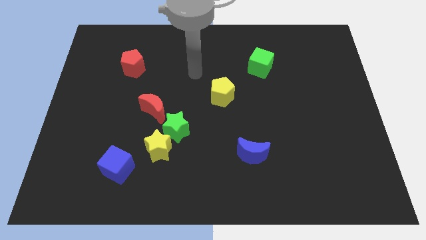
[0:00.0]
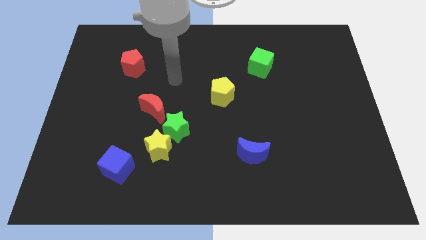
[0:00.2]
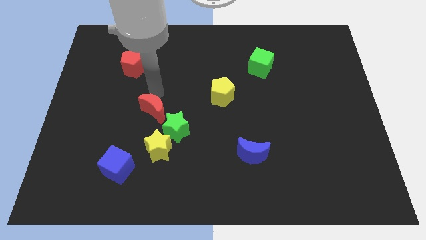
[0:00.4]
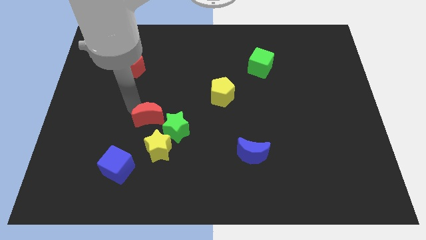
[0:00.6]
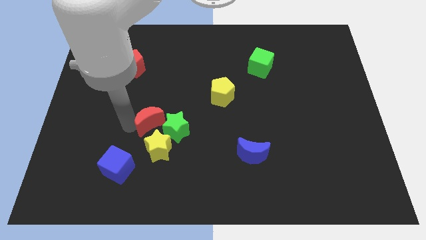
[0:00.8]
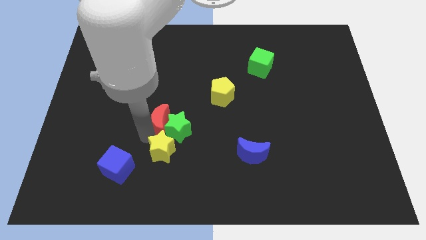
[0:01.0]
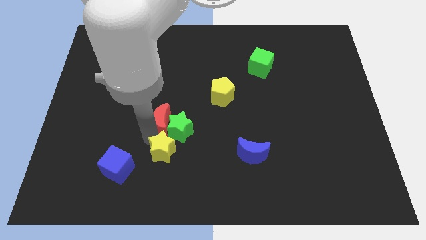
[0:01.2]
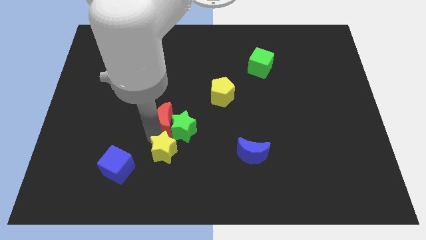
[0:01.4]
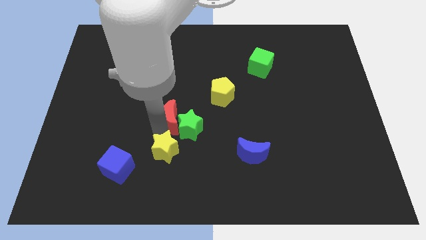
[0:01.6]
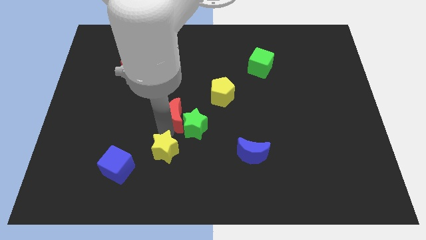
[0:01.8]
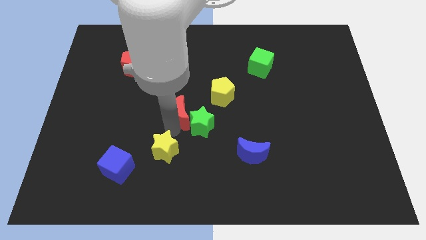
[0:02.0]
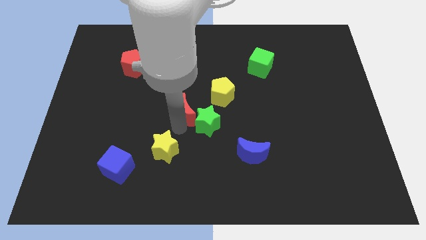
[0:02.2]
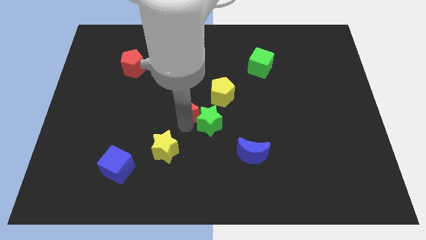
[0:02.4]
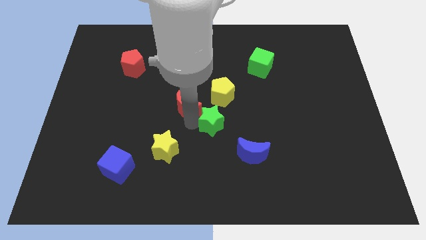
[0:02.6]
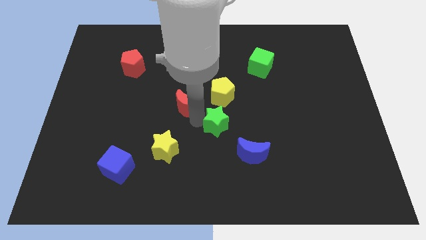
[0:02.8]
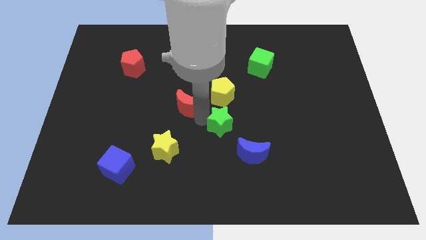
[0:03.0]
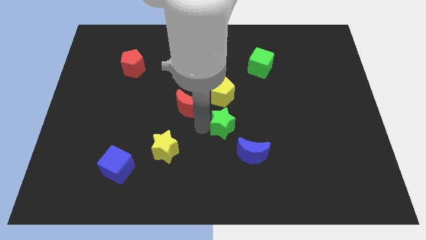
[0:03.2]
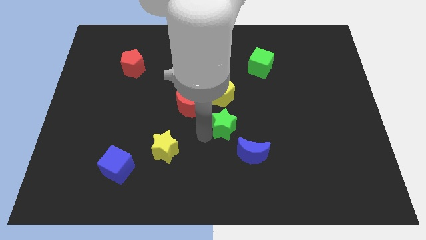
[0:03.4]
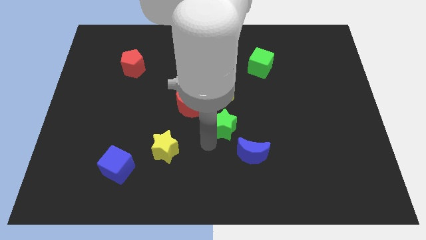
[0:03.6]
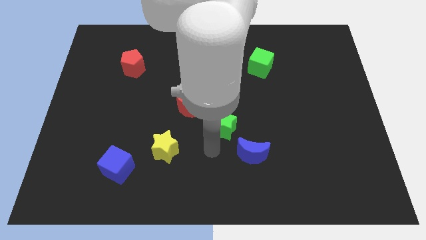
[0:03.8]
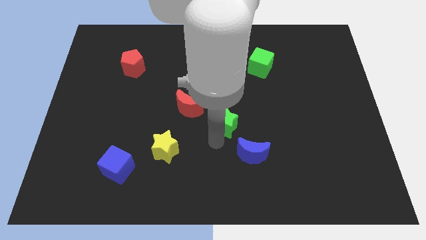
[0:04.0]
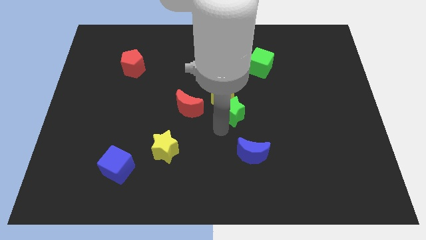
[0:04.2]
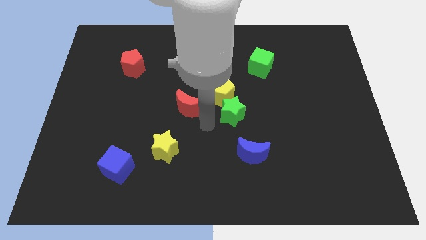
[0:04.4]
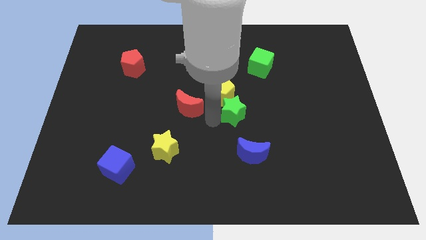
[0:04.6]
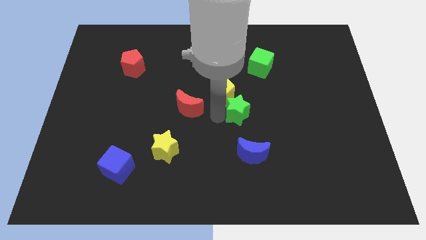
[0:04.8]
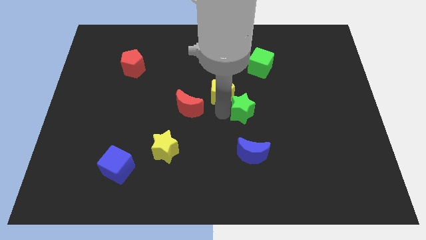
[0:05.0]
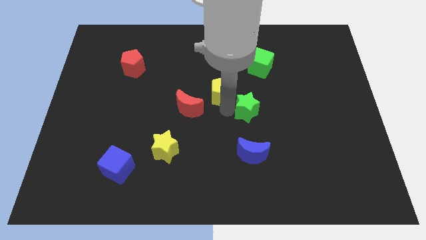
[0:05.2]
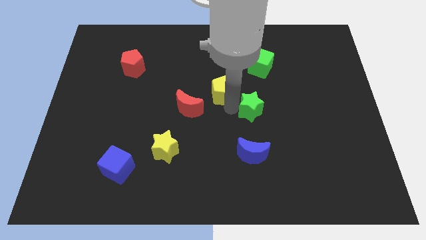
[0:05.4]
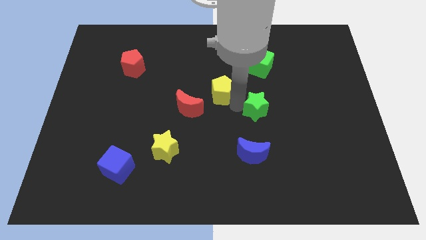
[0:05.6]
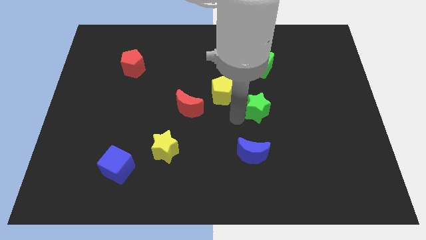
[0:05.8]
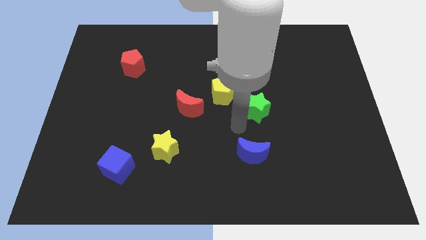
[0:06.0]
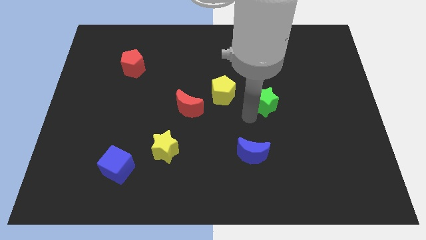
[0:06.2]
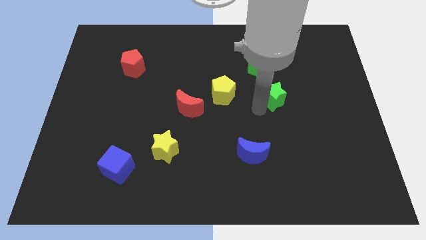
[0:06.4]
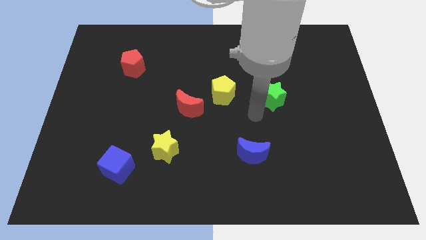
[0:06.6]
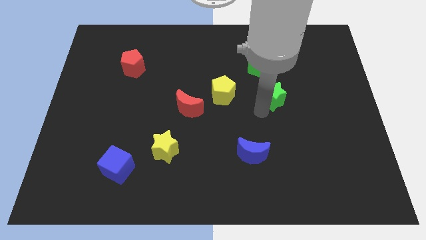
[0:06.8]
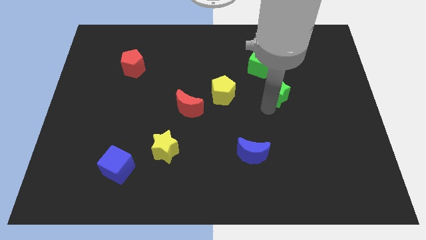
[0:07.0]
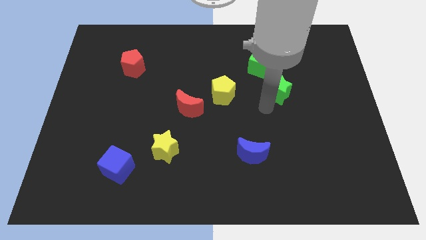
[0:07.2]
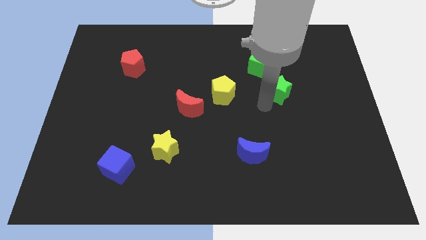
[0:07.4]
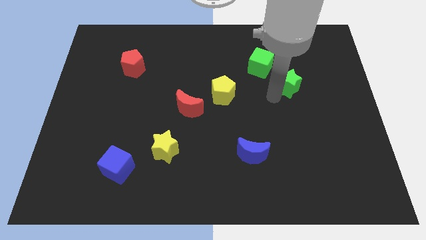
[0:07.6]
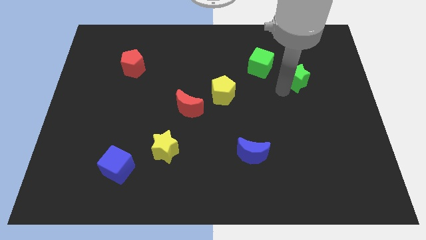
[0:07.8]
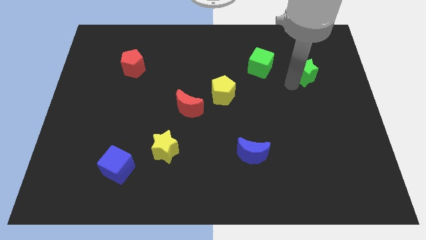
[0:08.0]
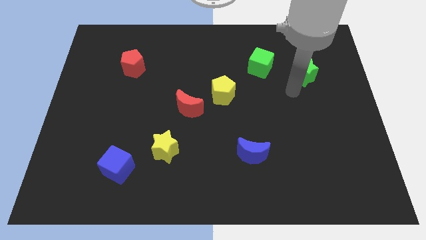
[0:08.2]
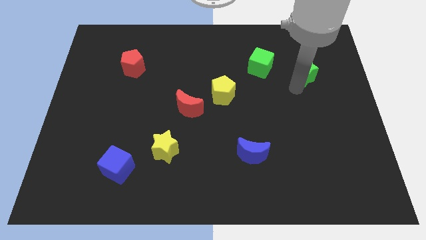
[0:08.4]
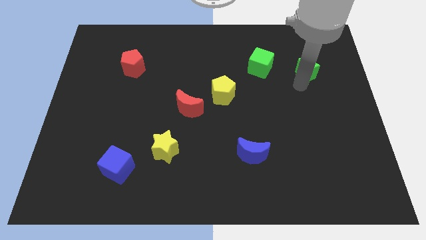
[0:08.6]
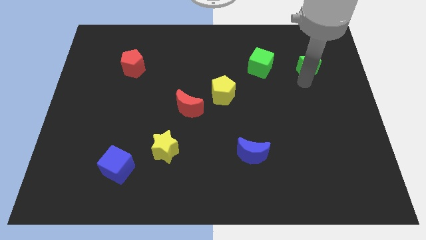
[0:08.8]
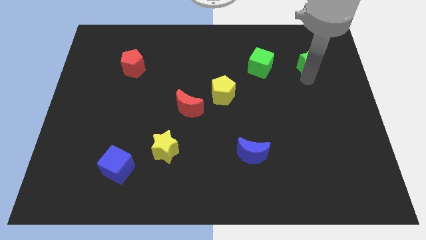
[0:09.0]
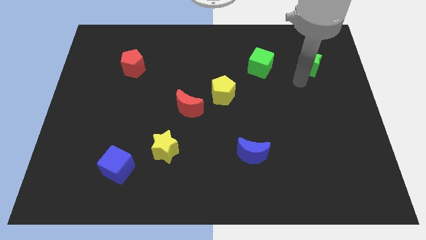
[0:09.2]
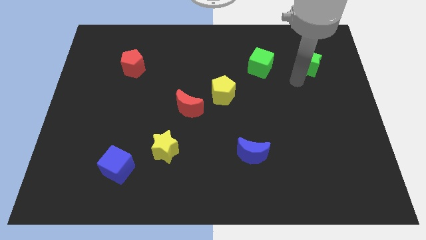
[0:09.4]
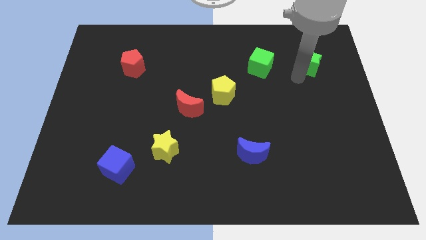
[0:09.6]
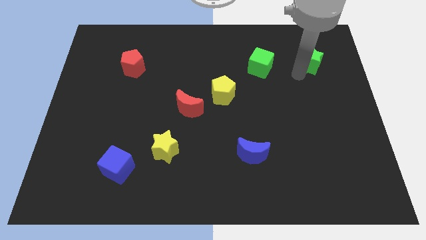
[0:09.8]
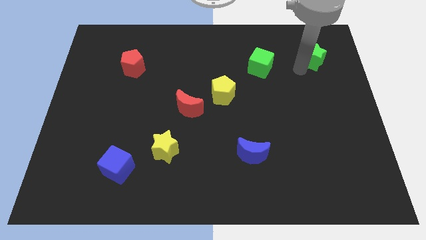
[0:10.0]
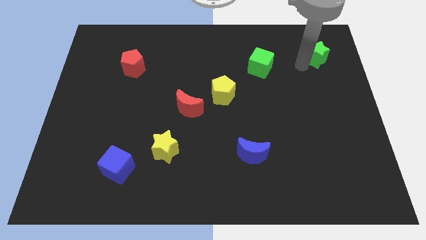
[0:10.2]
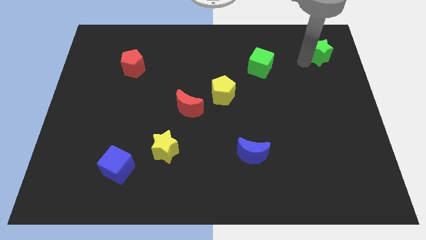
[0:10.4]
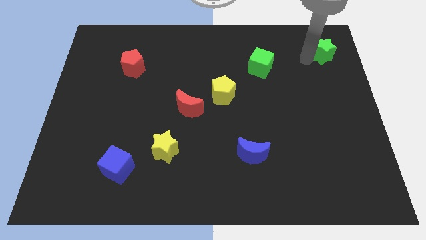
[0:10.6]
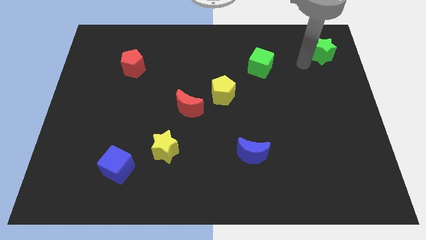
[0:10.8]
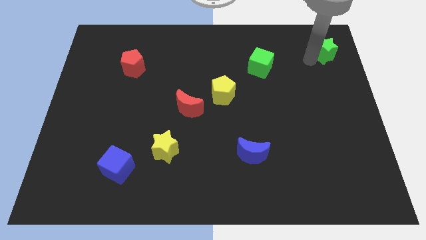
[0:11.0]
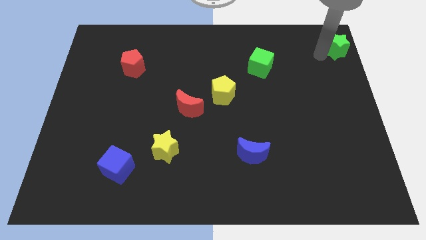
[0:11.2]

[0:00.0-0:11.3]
move the green star to the top right

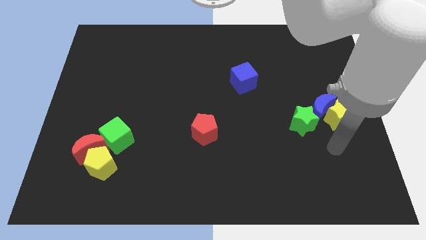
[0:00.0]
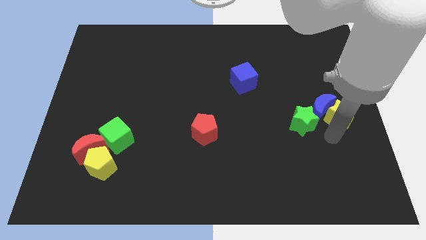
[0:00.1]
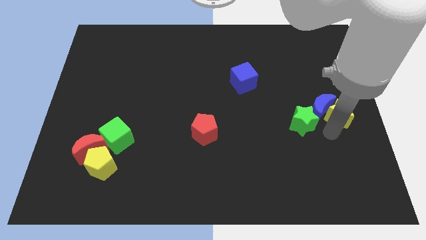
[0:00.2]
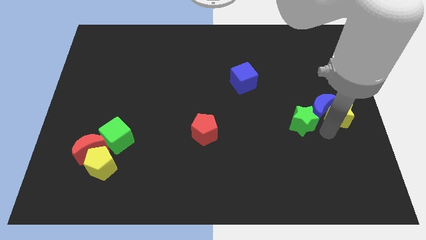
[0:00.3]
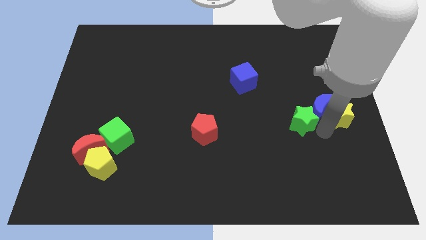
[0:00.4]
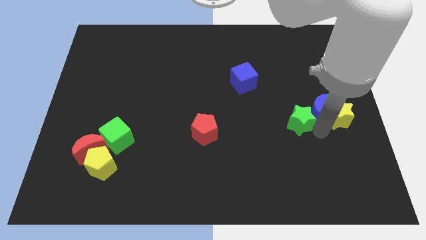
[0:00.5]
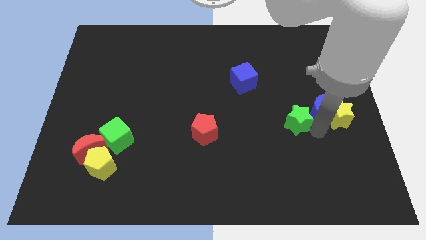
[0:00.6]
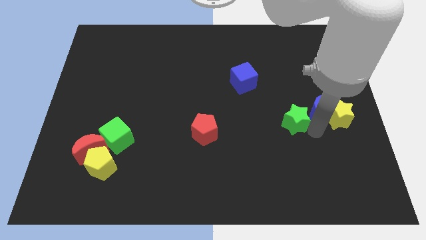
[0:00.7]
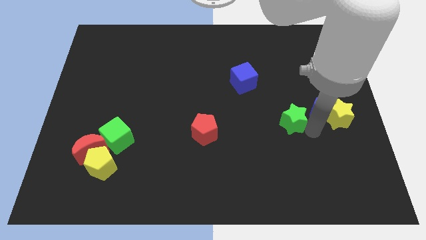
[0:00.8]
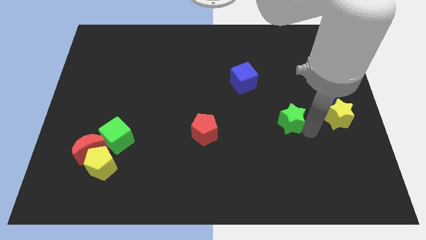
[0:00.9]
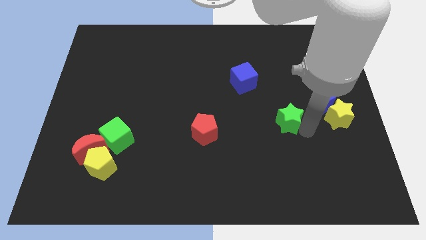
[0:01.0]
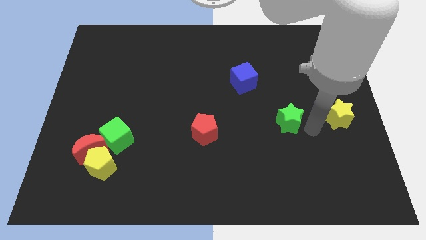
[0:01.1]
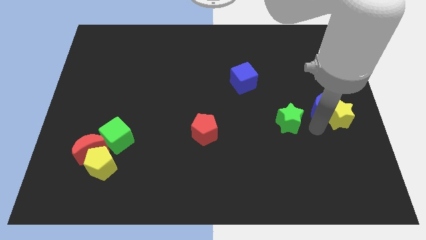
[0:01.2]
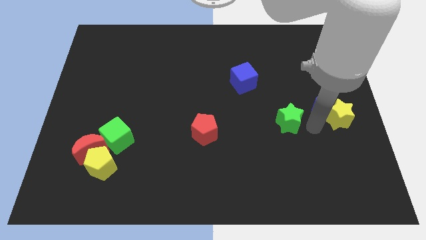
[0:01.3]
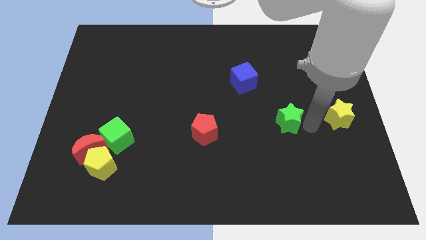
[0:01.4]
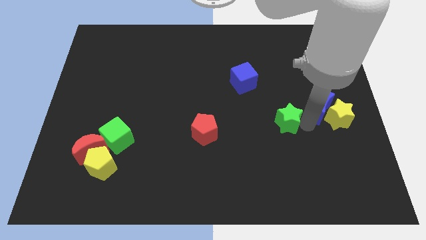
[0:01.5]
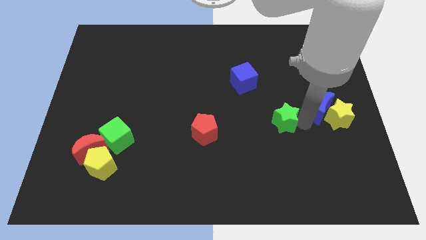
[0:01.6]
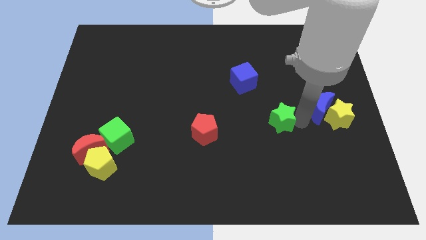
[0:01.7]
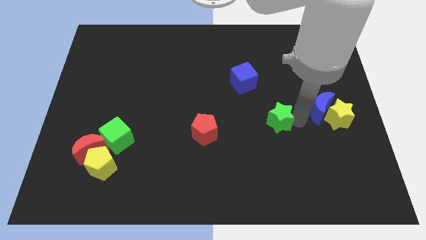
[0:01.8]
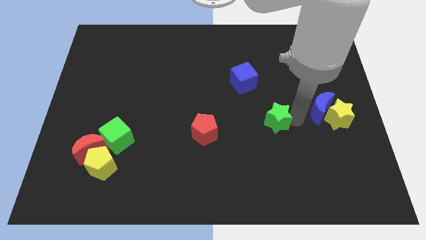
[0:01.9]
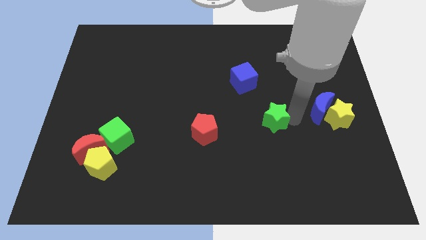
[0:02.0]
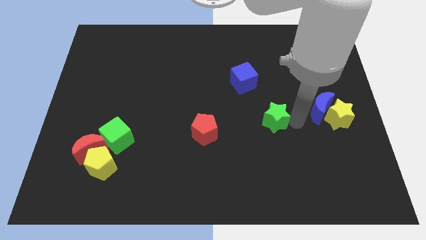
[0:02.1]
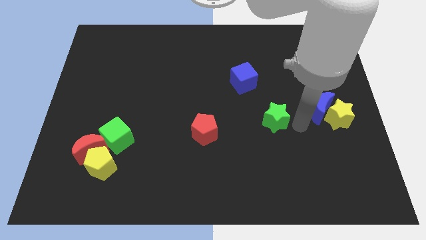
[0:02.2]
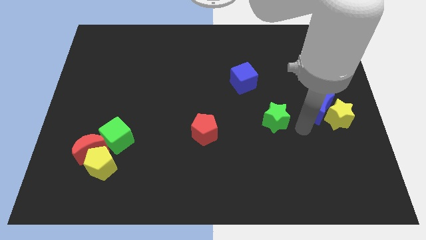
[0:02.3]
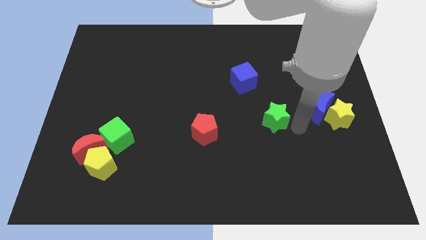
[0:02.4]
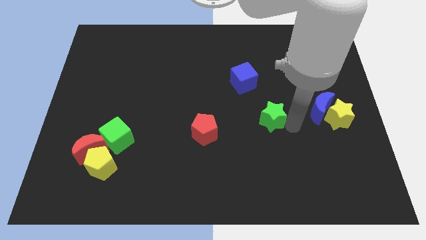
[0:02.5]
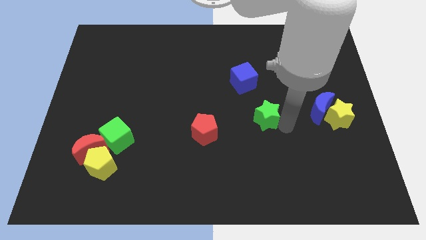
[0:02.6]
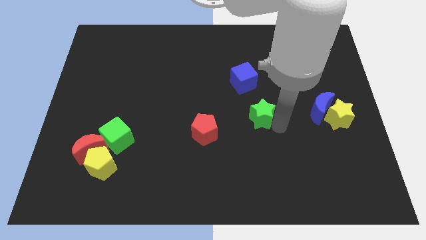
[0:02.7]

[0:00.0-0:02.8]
push the green star to the middle of the board
